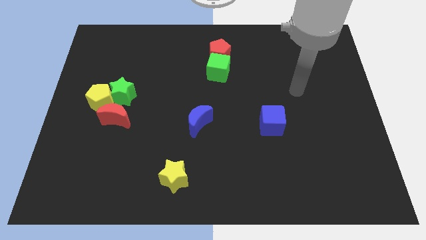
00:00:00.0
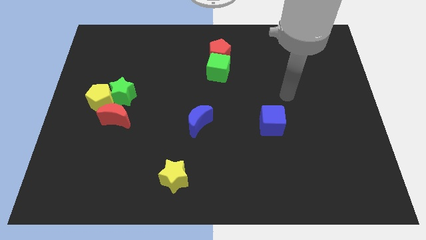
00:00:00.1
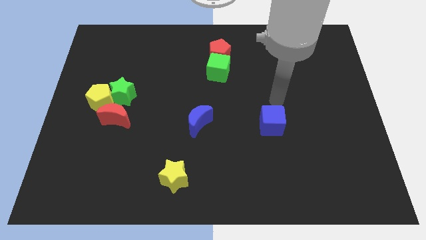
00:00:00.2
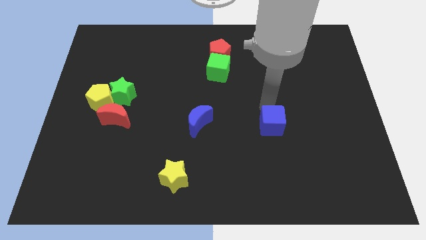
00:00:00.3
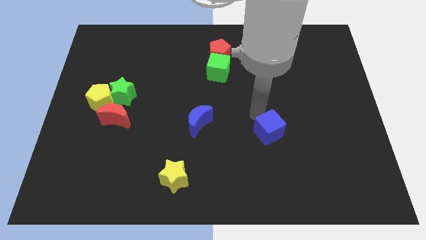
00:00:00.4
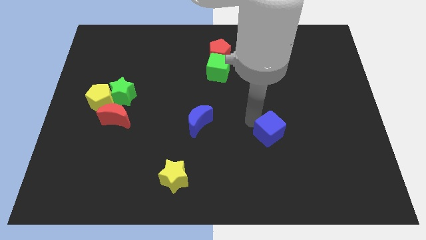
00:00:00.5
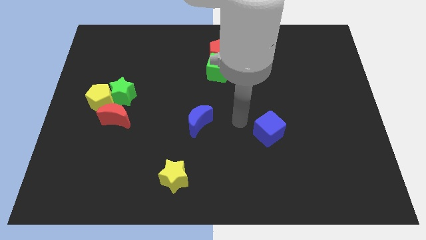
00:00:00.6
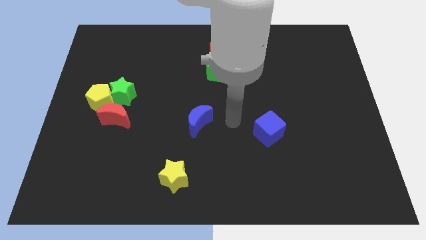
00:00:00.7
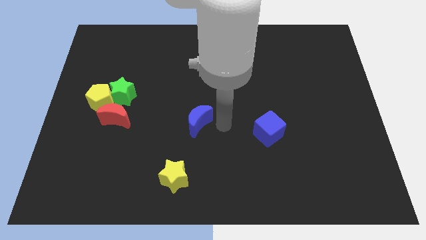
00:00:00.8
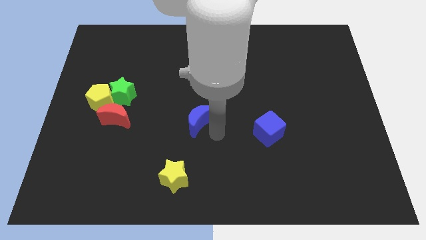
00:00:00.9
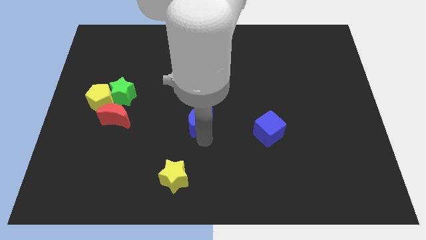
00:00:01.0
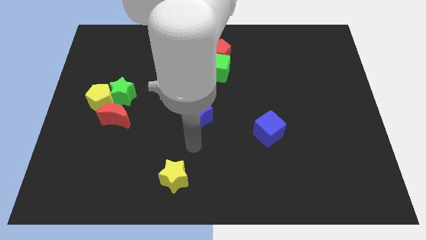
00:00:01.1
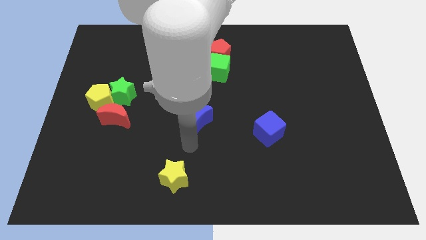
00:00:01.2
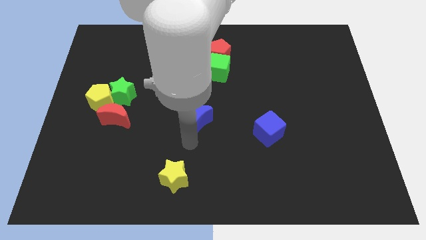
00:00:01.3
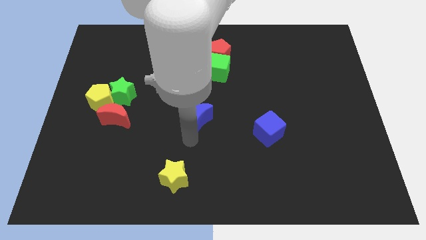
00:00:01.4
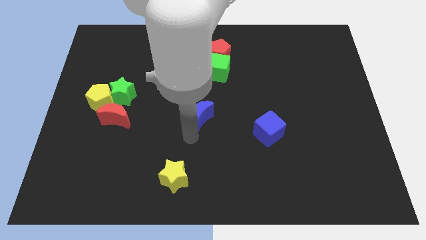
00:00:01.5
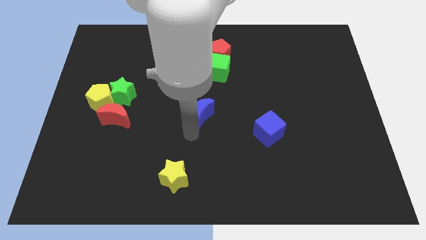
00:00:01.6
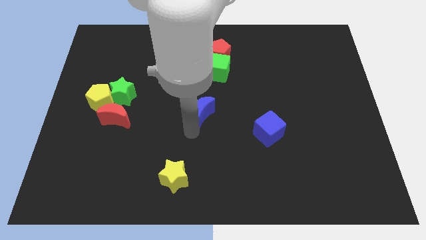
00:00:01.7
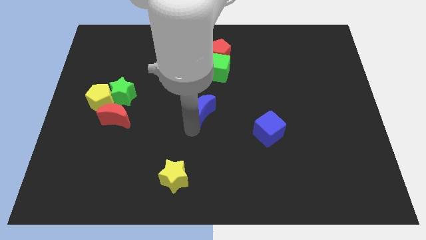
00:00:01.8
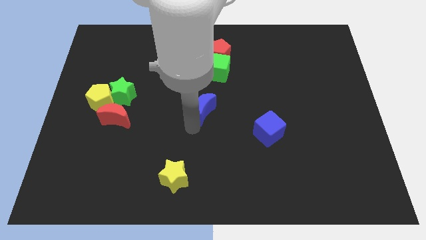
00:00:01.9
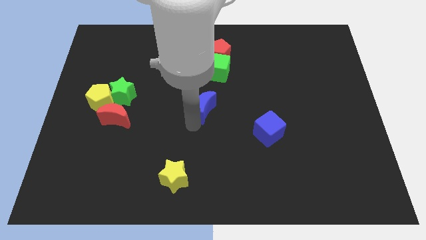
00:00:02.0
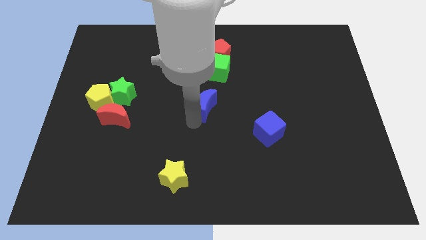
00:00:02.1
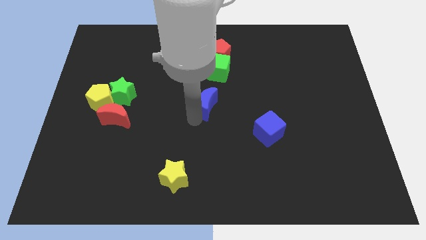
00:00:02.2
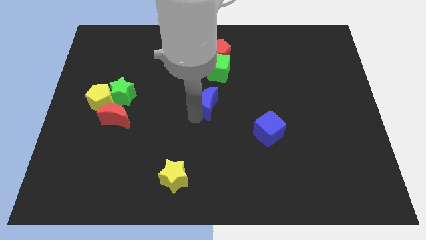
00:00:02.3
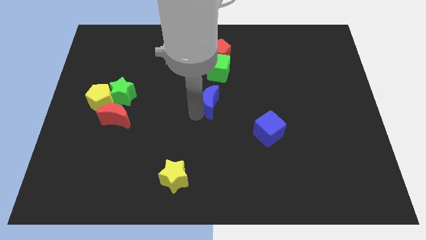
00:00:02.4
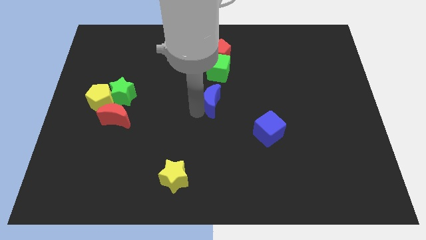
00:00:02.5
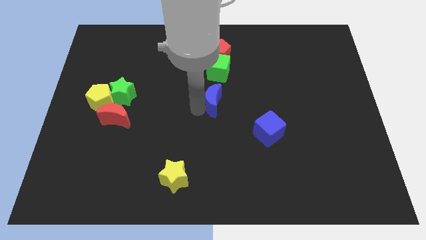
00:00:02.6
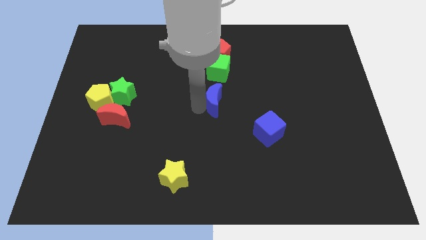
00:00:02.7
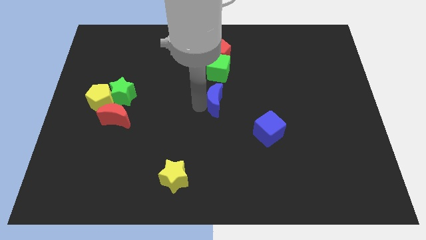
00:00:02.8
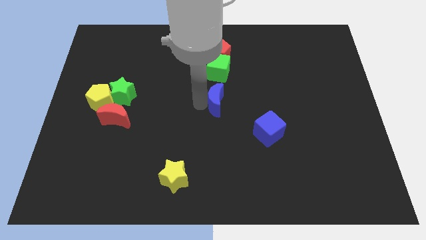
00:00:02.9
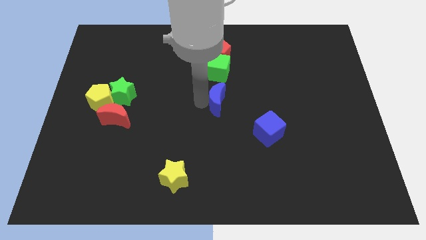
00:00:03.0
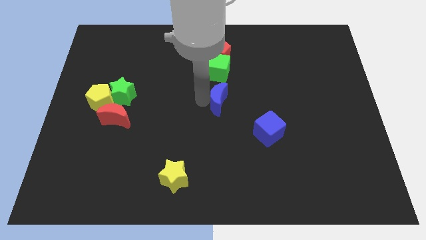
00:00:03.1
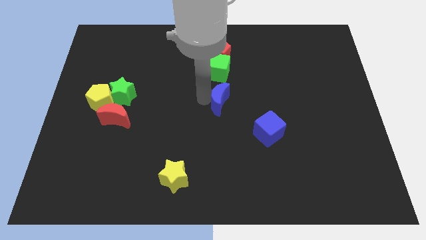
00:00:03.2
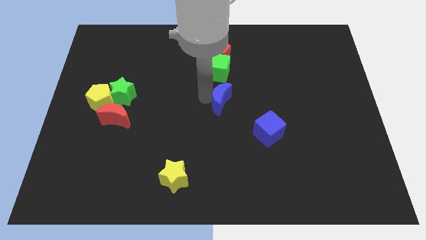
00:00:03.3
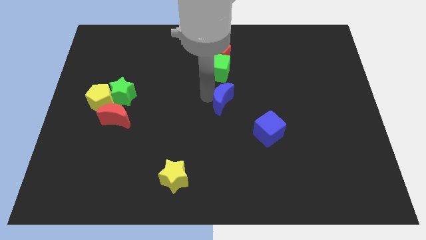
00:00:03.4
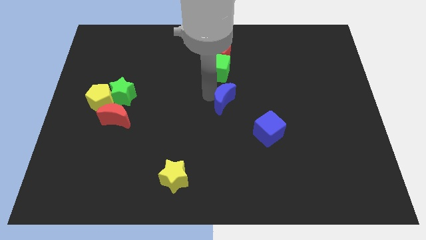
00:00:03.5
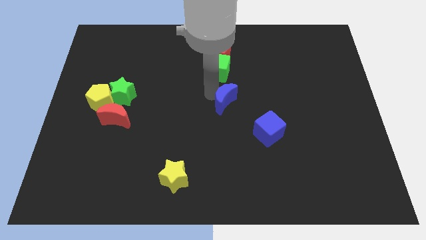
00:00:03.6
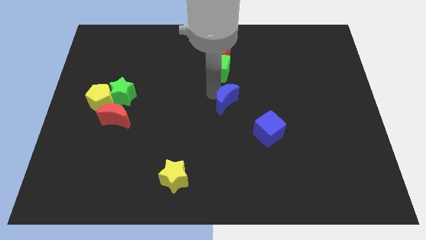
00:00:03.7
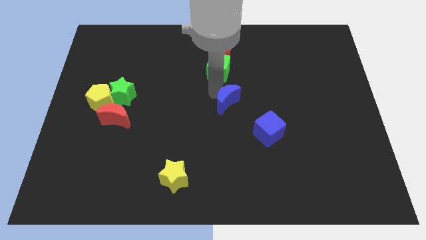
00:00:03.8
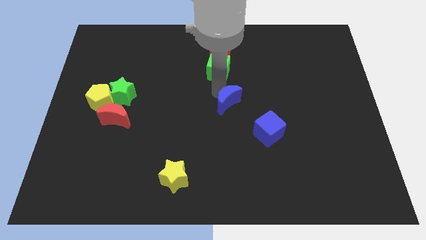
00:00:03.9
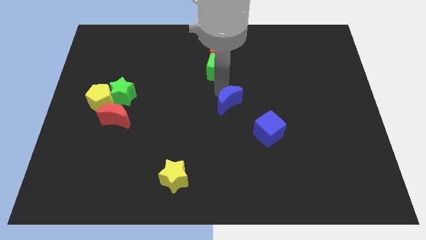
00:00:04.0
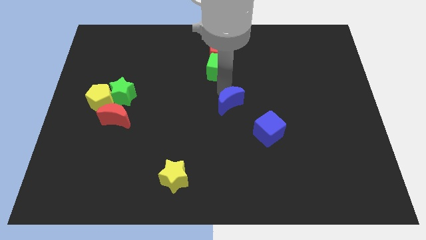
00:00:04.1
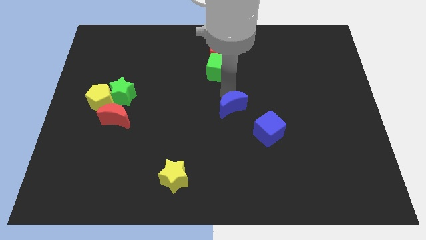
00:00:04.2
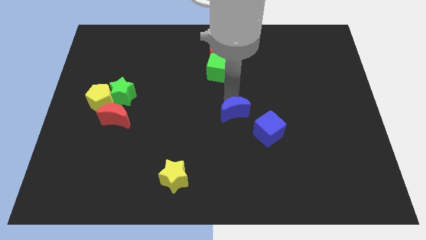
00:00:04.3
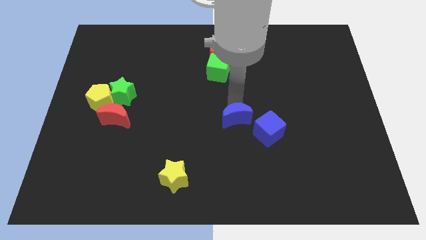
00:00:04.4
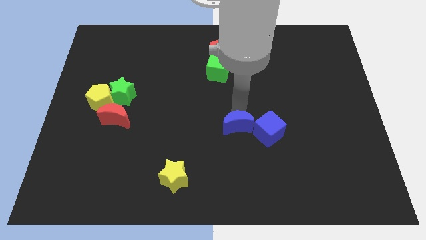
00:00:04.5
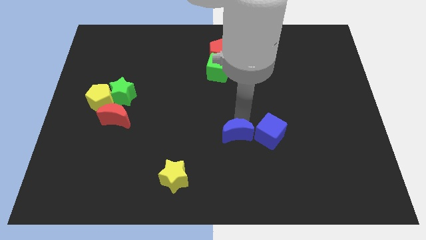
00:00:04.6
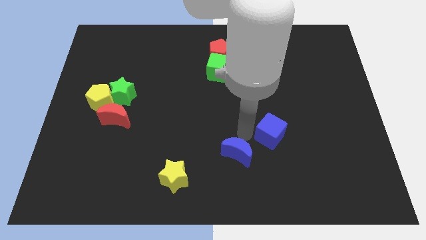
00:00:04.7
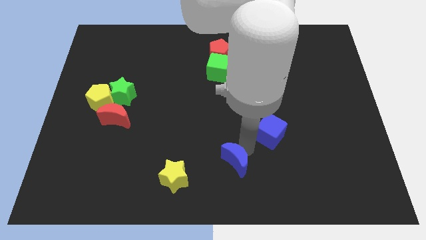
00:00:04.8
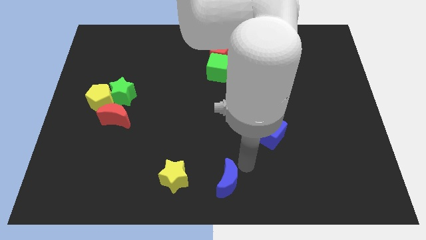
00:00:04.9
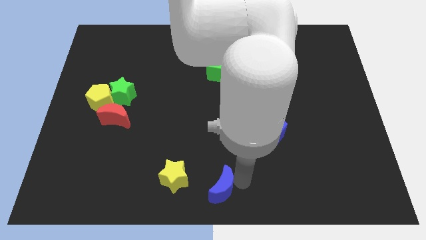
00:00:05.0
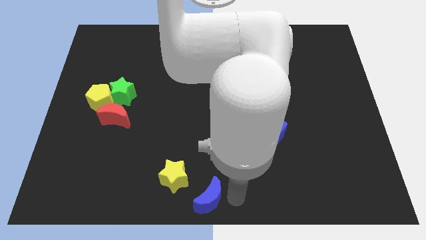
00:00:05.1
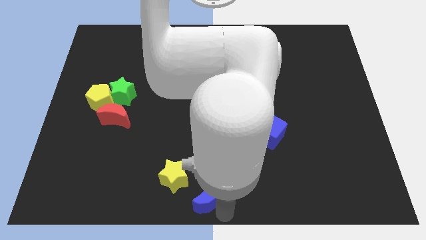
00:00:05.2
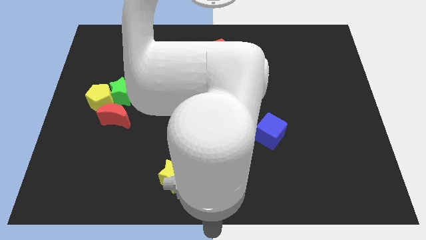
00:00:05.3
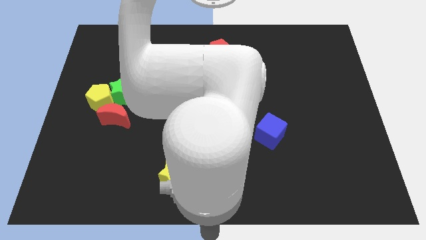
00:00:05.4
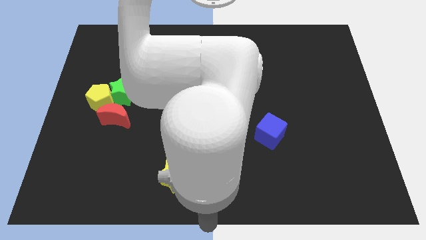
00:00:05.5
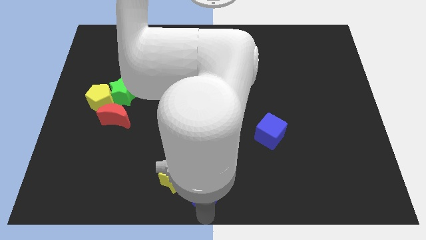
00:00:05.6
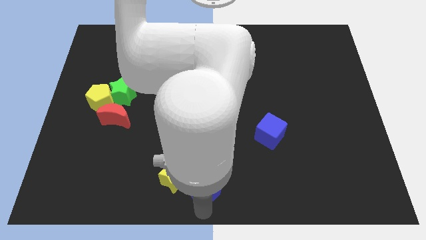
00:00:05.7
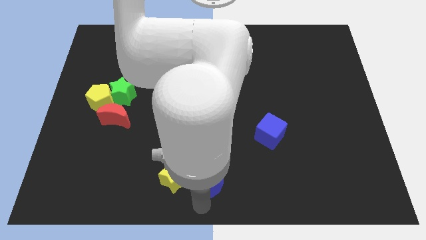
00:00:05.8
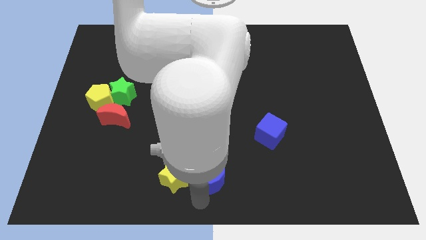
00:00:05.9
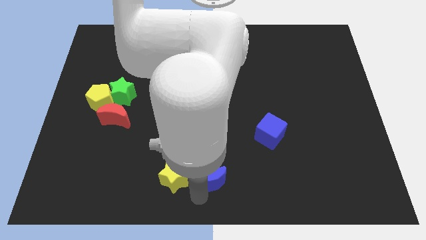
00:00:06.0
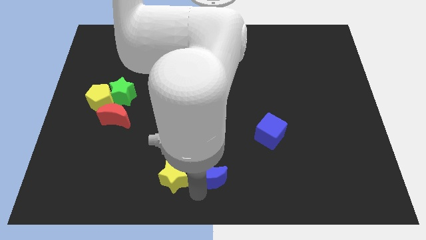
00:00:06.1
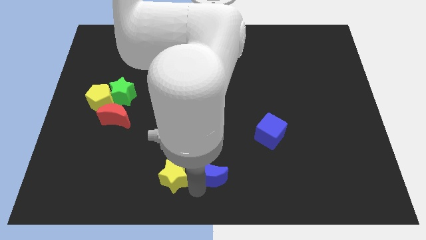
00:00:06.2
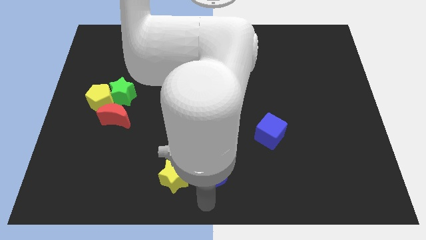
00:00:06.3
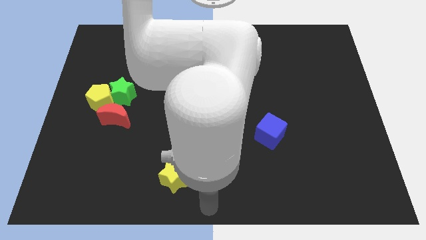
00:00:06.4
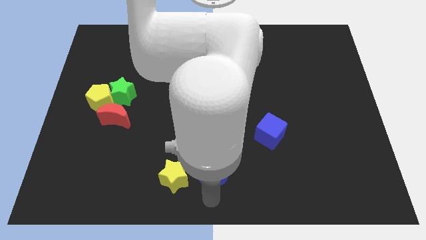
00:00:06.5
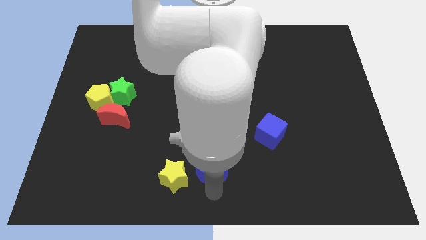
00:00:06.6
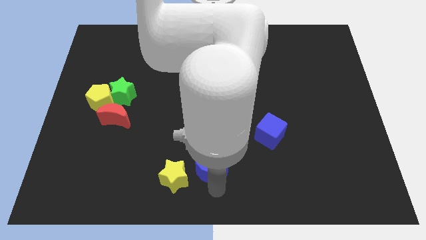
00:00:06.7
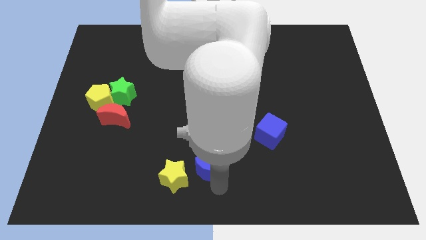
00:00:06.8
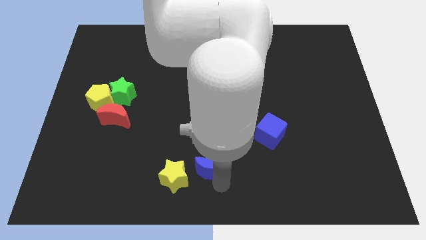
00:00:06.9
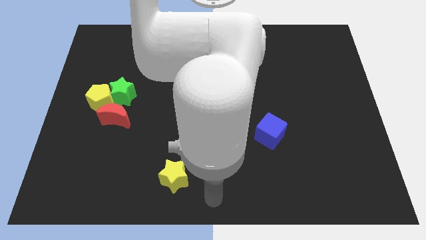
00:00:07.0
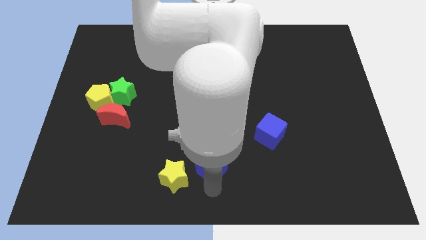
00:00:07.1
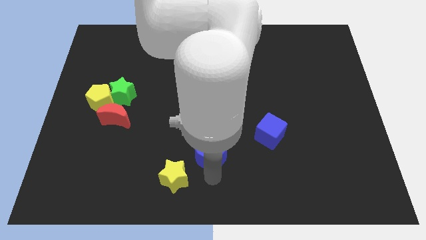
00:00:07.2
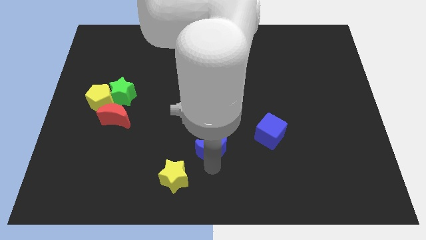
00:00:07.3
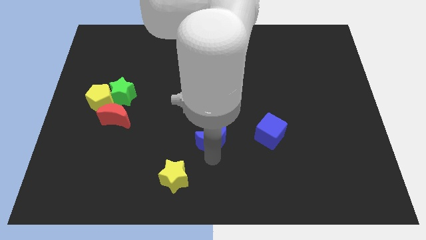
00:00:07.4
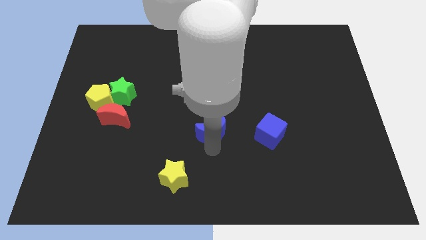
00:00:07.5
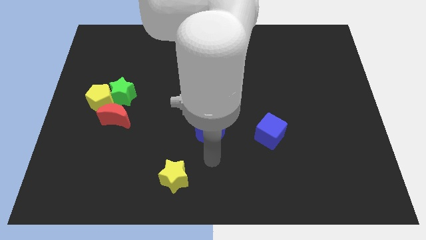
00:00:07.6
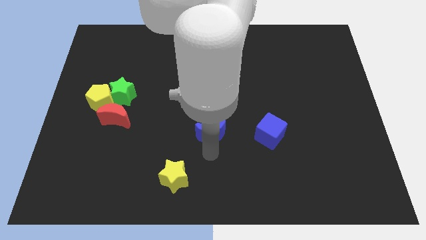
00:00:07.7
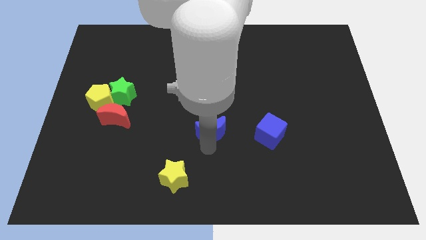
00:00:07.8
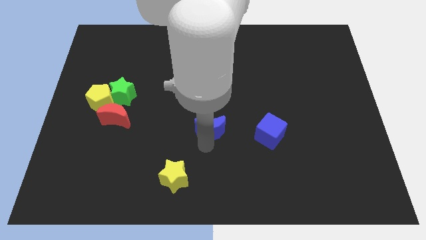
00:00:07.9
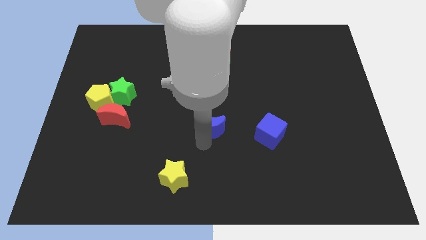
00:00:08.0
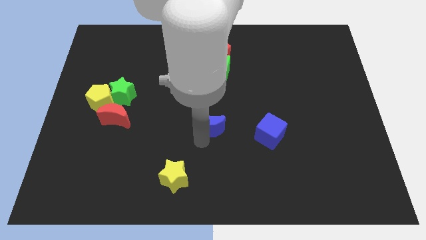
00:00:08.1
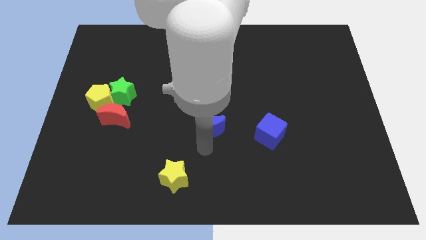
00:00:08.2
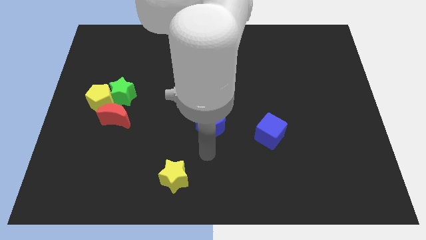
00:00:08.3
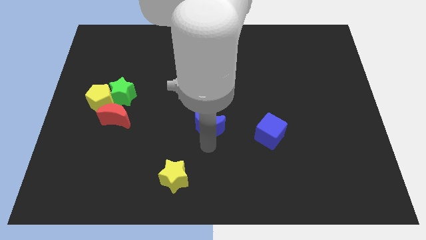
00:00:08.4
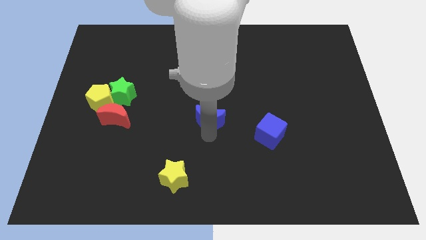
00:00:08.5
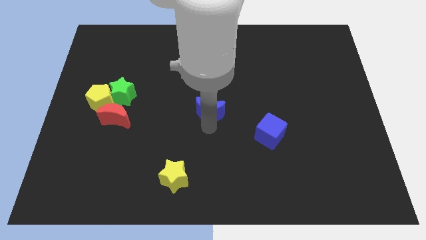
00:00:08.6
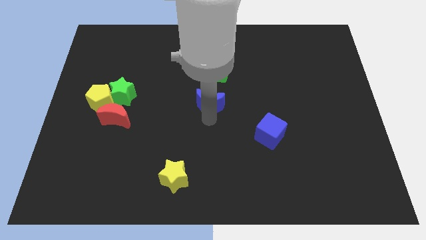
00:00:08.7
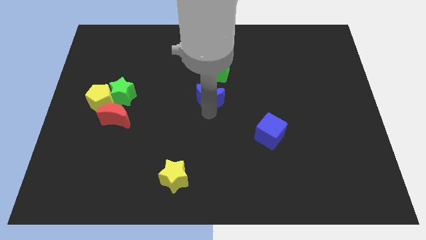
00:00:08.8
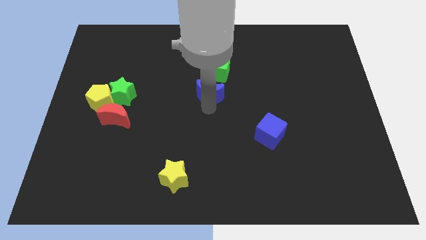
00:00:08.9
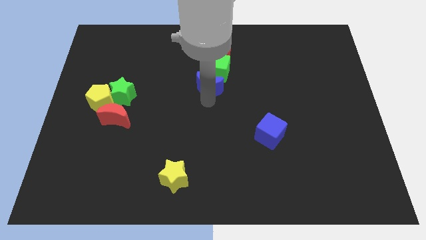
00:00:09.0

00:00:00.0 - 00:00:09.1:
move the blue moon towards the green cube
